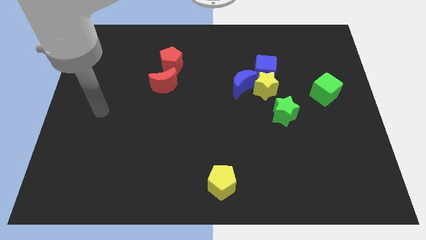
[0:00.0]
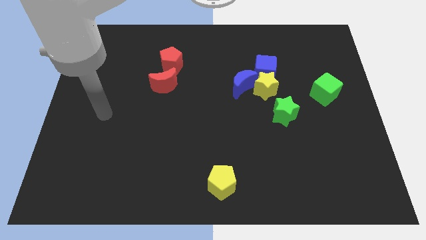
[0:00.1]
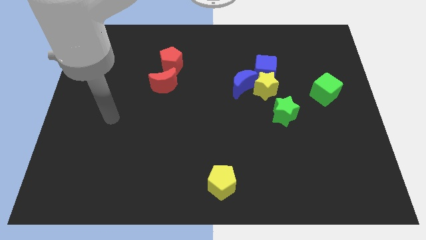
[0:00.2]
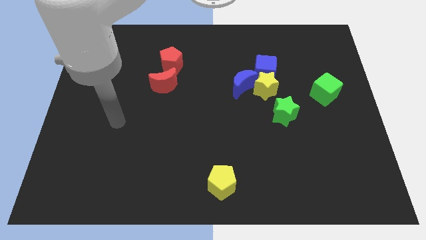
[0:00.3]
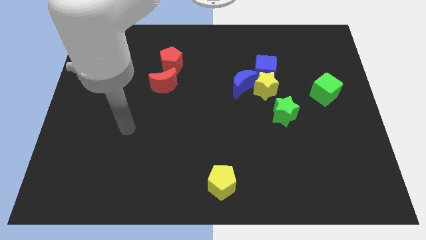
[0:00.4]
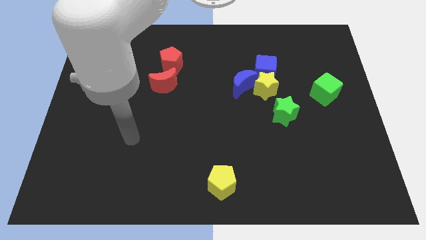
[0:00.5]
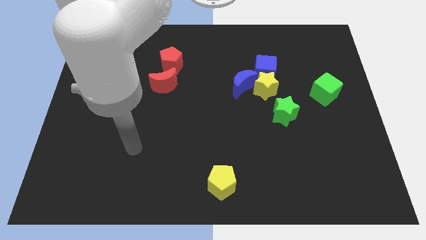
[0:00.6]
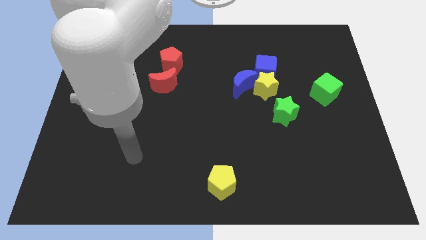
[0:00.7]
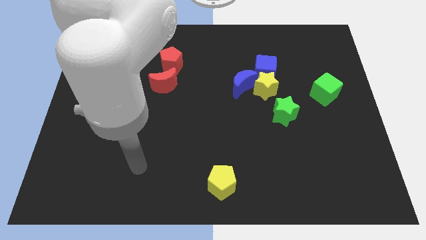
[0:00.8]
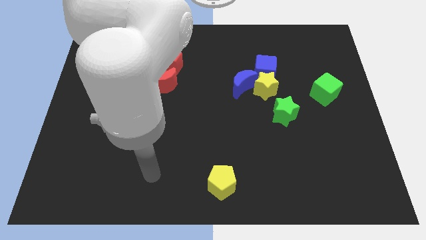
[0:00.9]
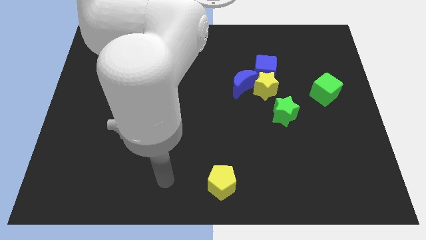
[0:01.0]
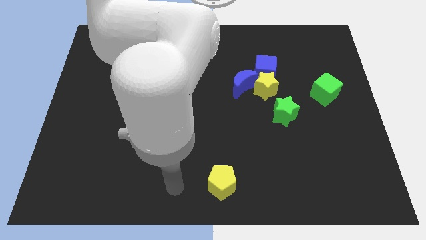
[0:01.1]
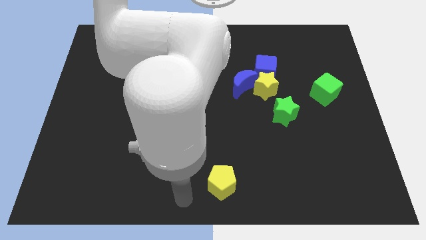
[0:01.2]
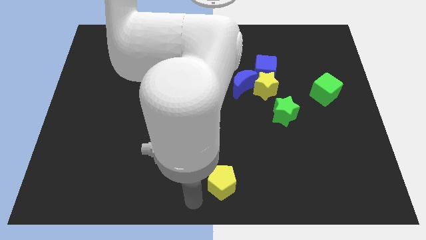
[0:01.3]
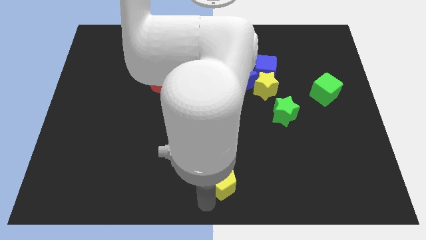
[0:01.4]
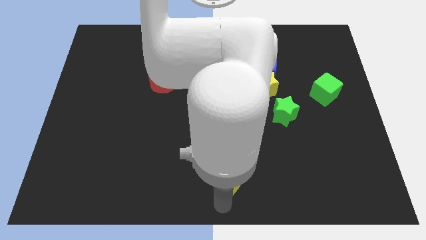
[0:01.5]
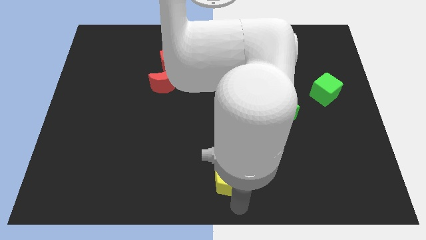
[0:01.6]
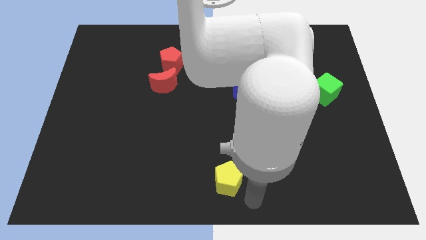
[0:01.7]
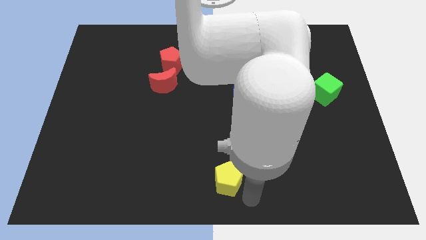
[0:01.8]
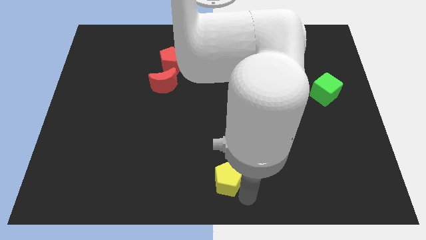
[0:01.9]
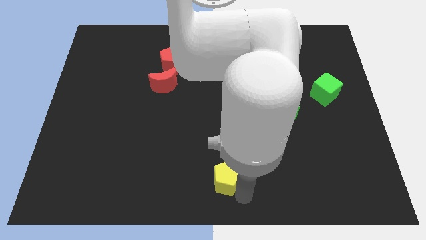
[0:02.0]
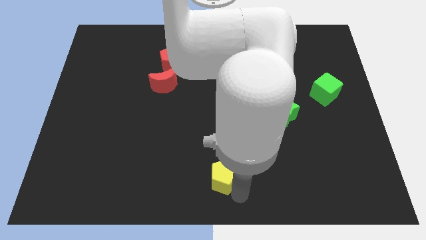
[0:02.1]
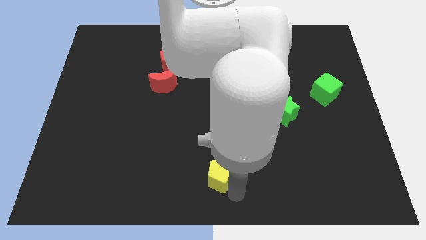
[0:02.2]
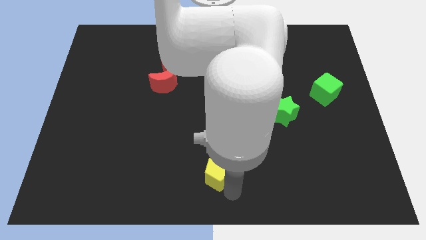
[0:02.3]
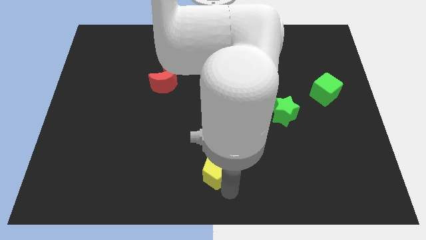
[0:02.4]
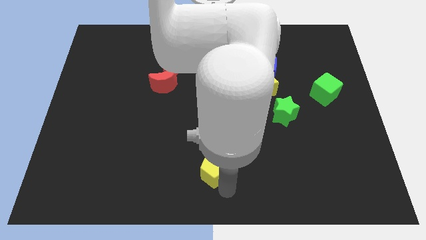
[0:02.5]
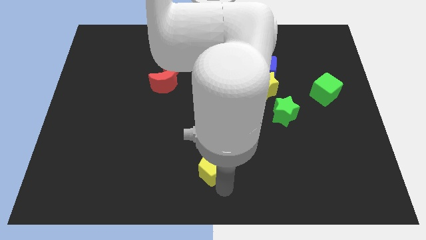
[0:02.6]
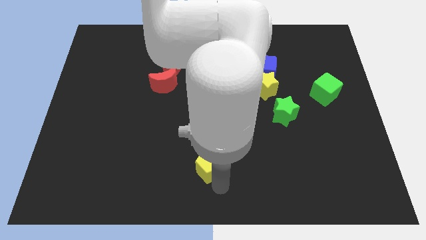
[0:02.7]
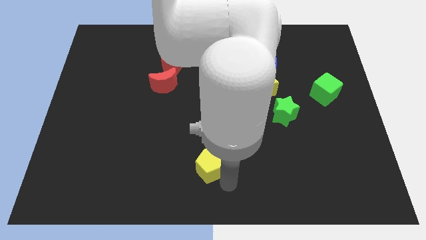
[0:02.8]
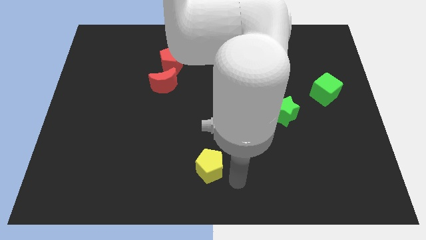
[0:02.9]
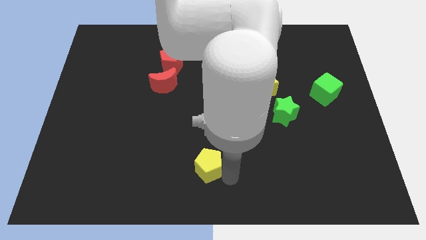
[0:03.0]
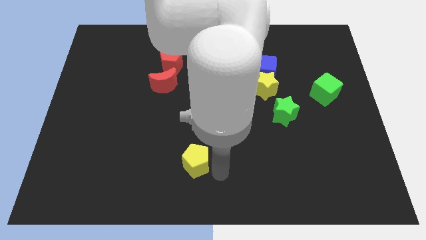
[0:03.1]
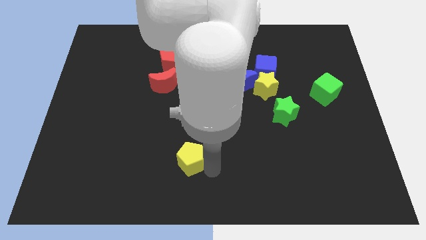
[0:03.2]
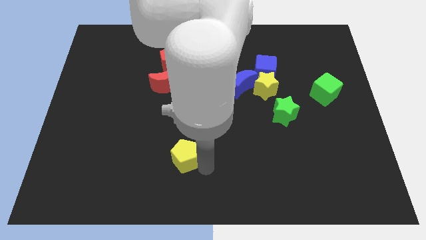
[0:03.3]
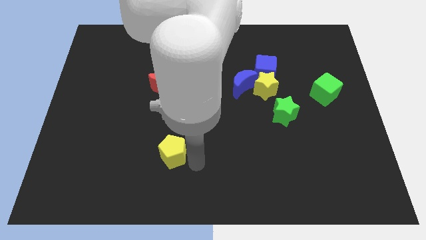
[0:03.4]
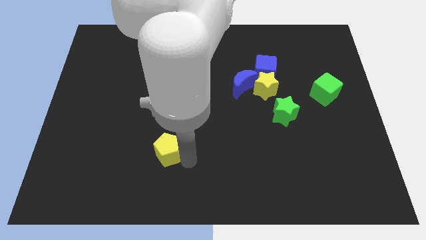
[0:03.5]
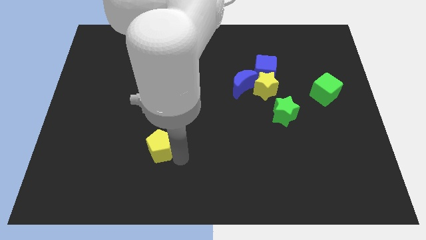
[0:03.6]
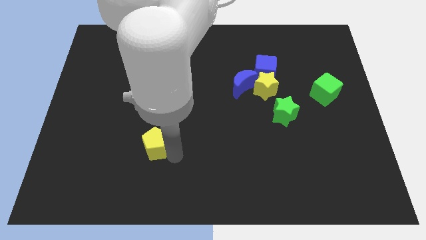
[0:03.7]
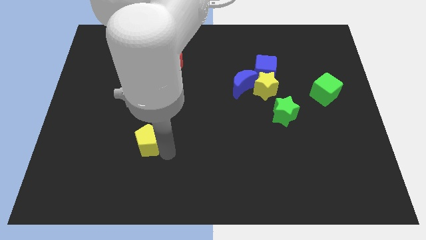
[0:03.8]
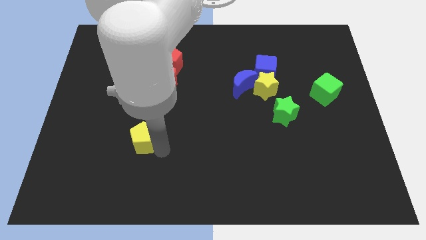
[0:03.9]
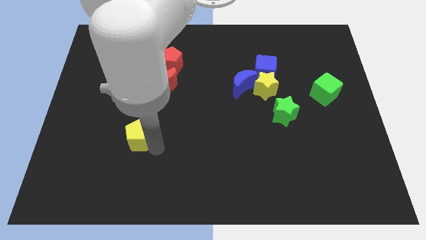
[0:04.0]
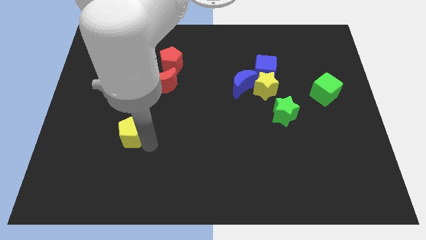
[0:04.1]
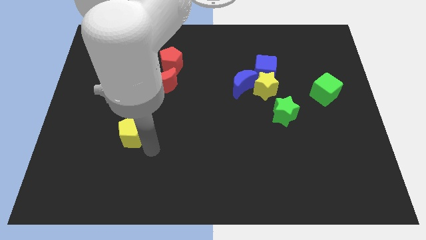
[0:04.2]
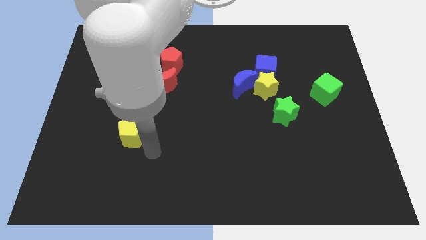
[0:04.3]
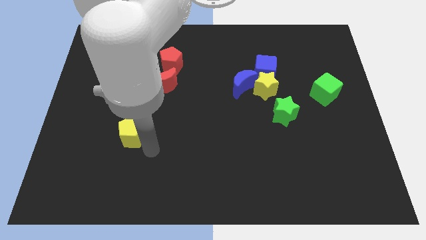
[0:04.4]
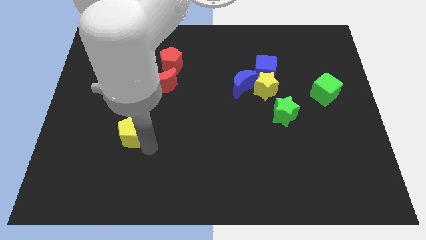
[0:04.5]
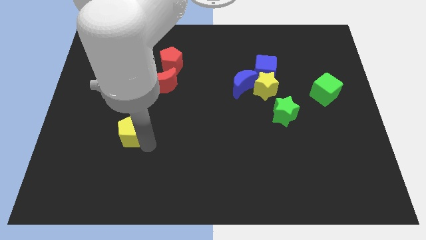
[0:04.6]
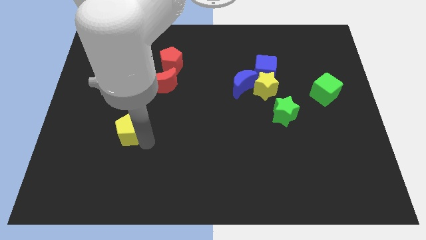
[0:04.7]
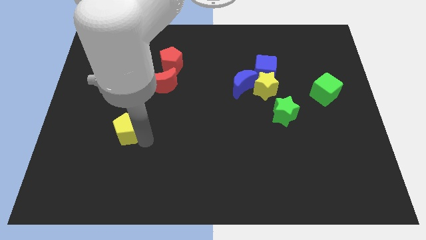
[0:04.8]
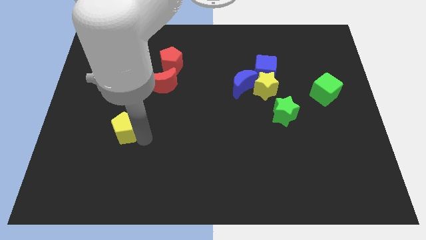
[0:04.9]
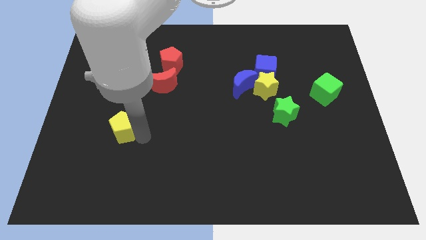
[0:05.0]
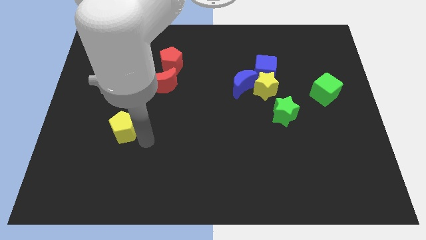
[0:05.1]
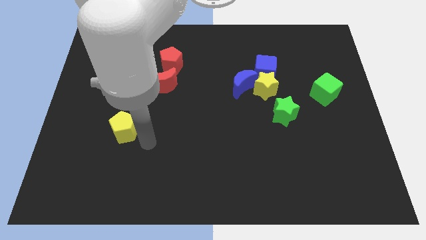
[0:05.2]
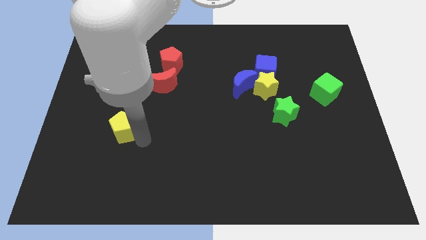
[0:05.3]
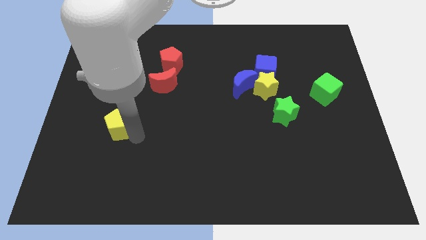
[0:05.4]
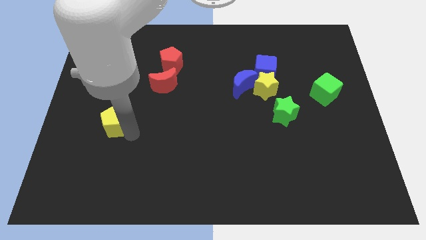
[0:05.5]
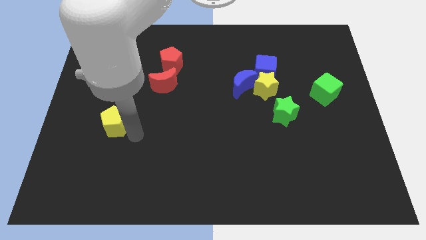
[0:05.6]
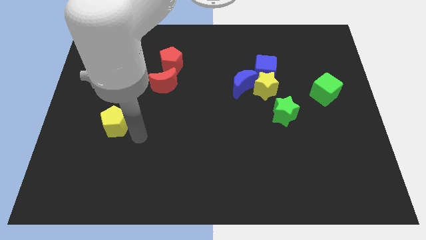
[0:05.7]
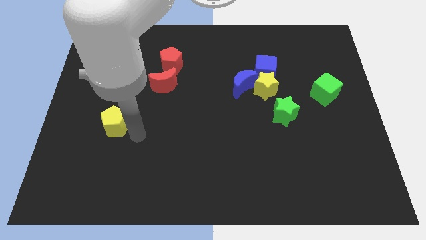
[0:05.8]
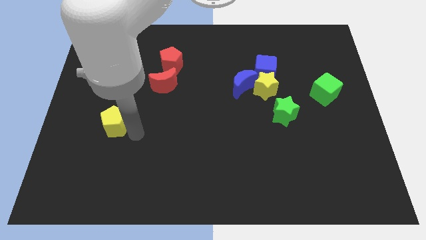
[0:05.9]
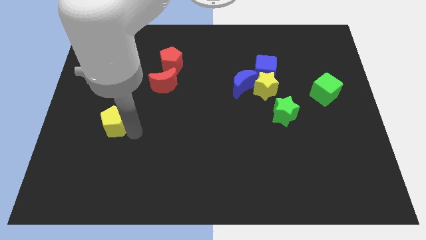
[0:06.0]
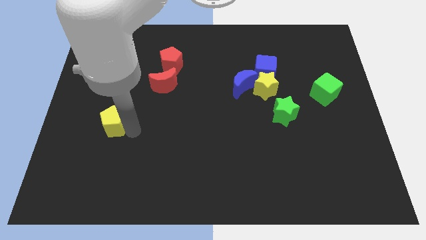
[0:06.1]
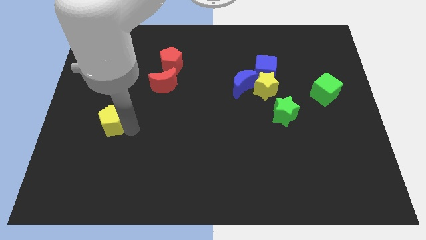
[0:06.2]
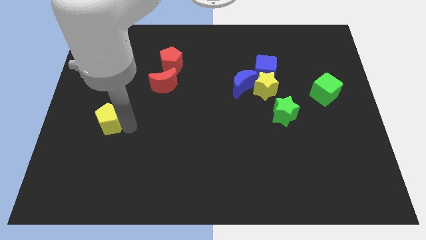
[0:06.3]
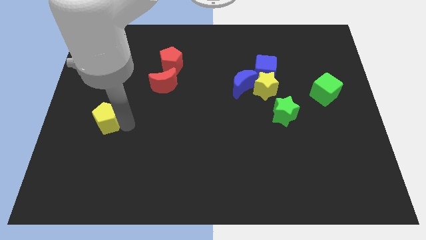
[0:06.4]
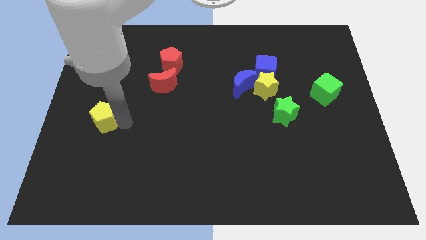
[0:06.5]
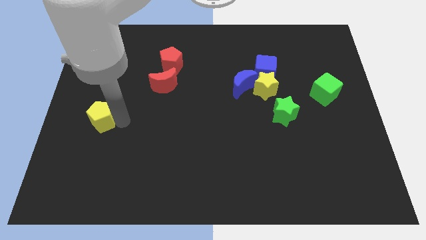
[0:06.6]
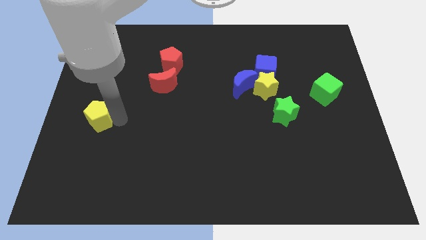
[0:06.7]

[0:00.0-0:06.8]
move the yellow pentagon to the left side
